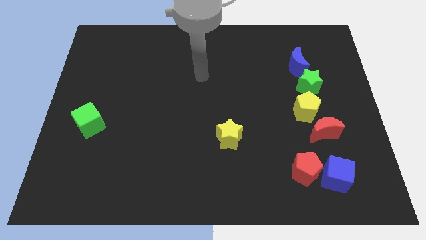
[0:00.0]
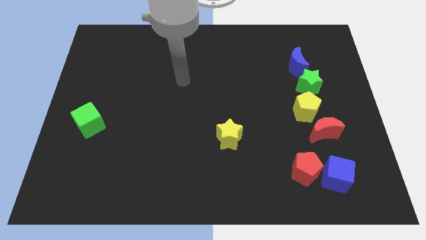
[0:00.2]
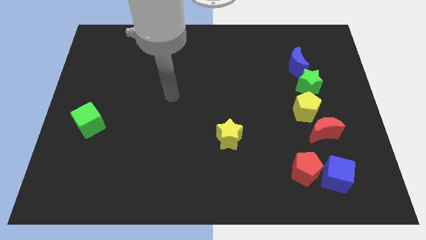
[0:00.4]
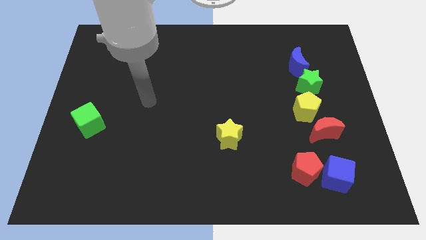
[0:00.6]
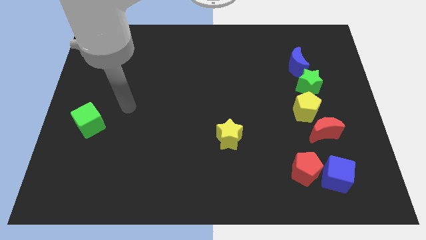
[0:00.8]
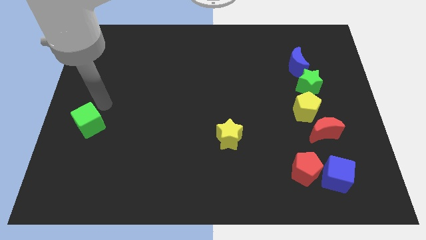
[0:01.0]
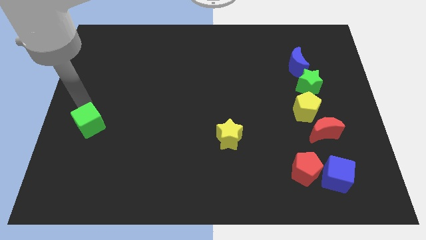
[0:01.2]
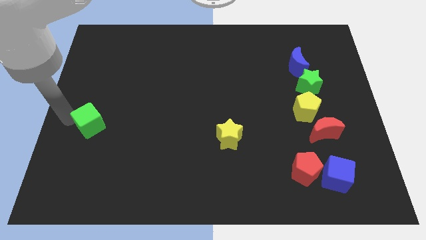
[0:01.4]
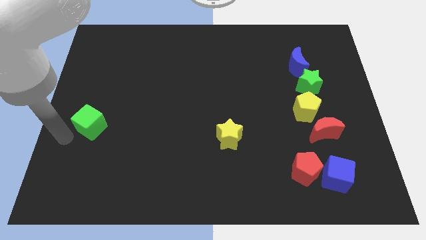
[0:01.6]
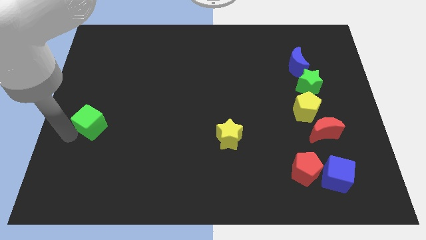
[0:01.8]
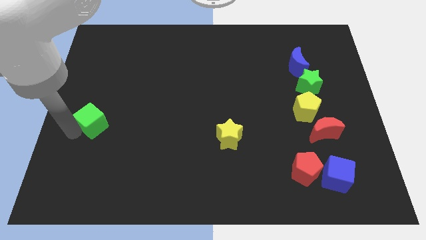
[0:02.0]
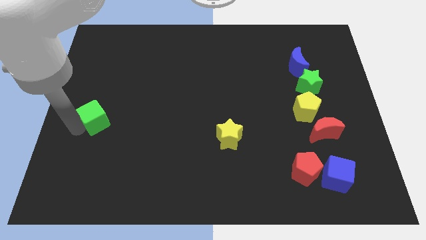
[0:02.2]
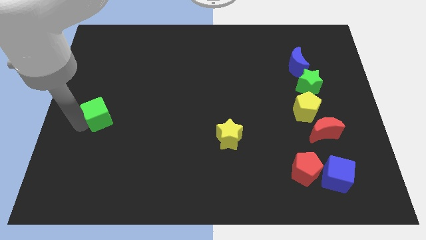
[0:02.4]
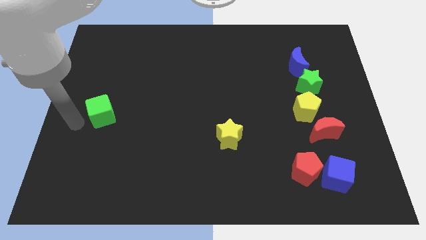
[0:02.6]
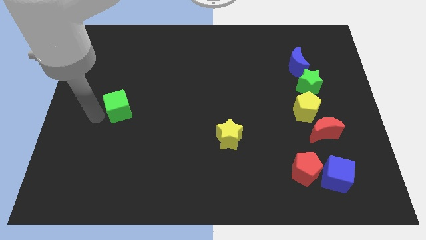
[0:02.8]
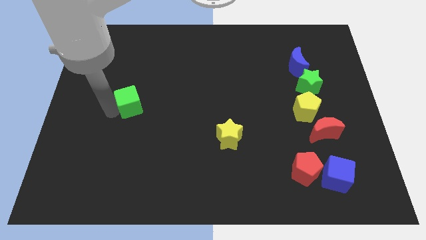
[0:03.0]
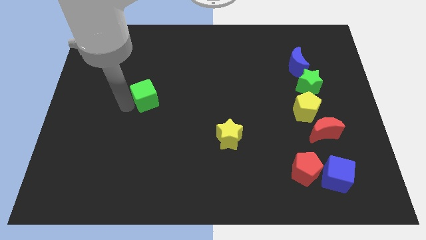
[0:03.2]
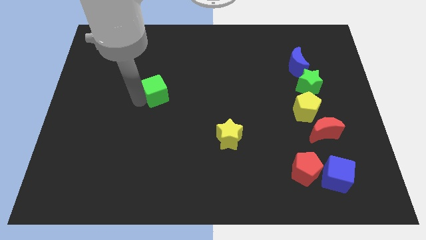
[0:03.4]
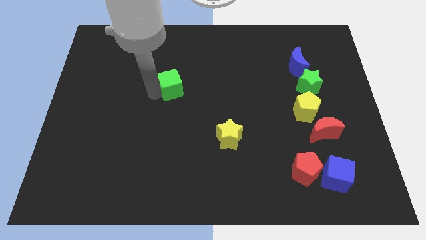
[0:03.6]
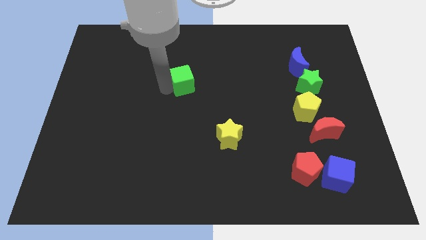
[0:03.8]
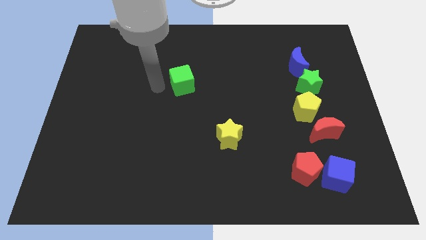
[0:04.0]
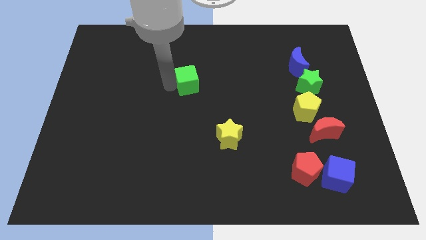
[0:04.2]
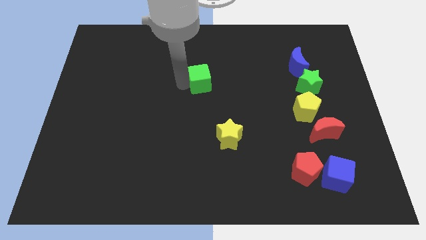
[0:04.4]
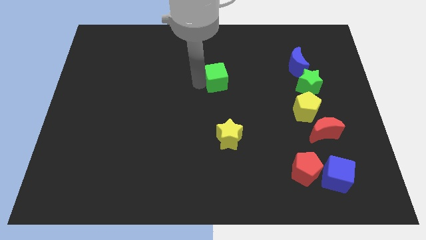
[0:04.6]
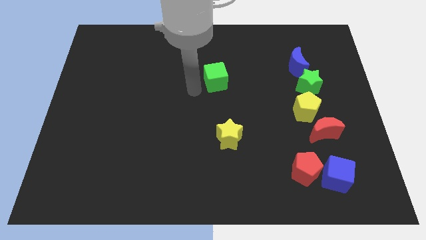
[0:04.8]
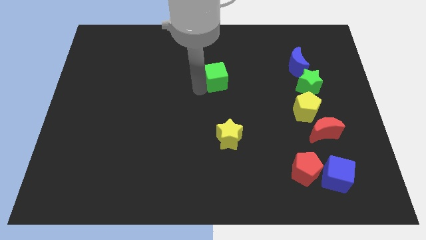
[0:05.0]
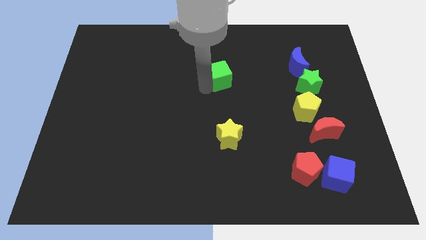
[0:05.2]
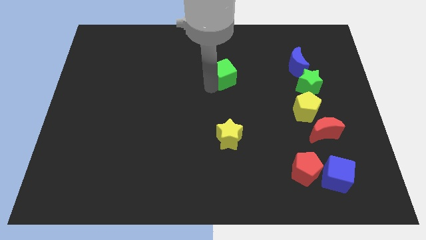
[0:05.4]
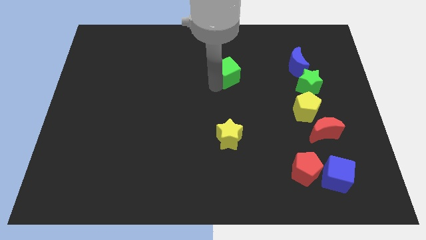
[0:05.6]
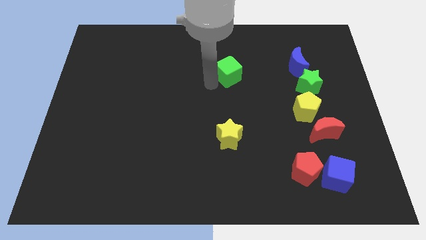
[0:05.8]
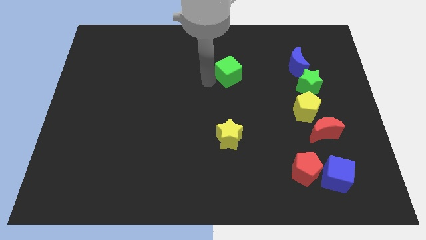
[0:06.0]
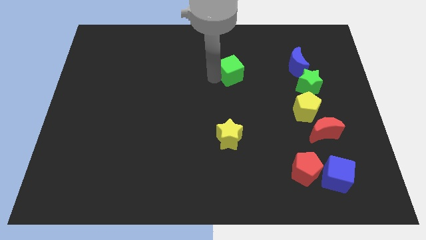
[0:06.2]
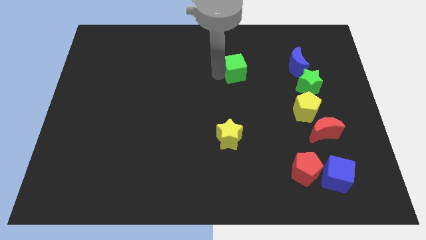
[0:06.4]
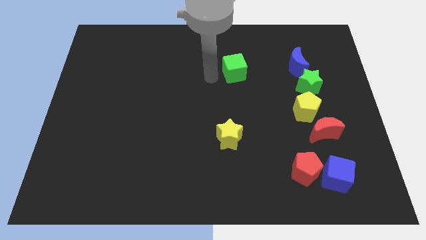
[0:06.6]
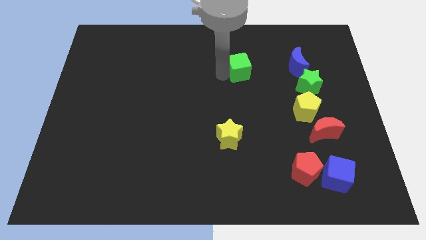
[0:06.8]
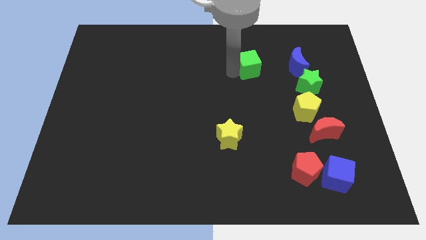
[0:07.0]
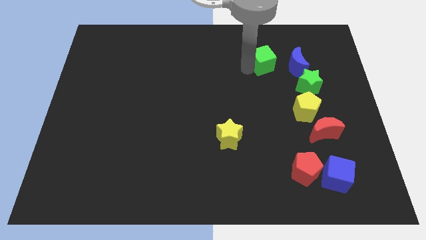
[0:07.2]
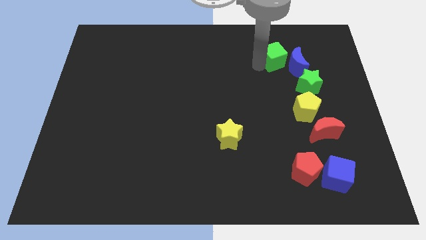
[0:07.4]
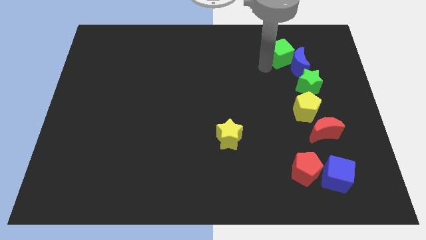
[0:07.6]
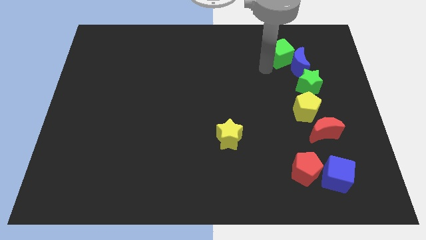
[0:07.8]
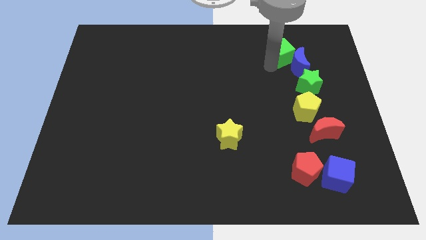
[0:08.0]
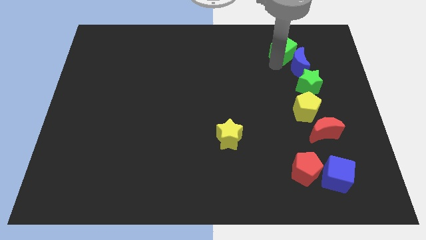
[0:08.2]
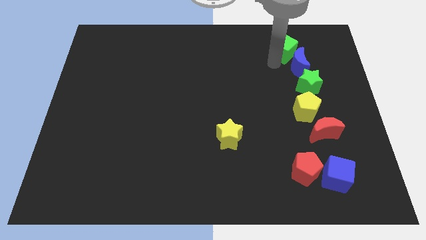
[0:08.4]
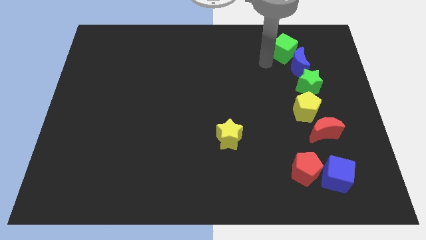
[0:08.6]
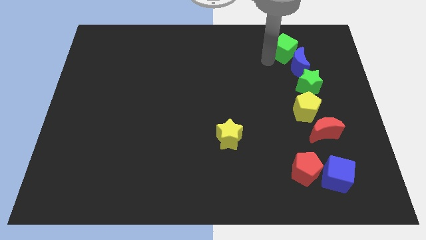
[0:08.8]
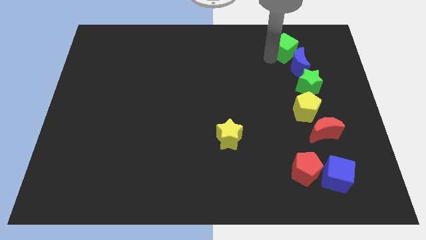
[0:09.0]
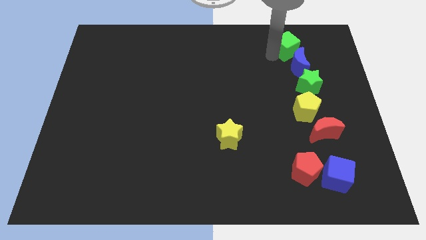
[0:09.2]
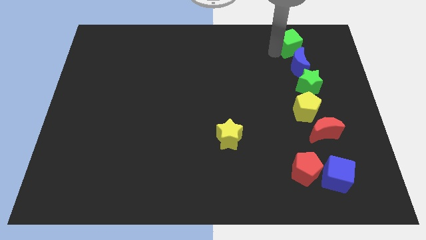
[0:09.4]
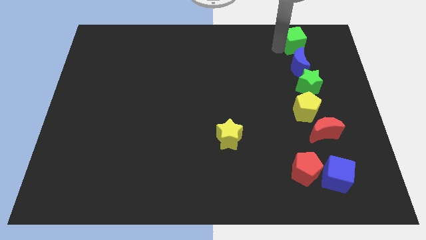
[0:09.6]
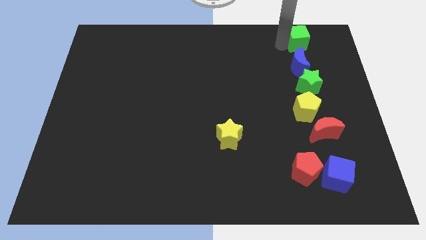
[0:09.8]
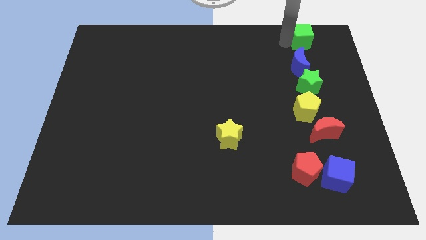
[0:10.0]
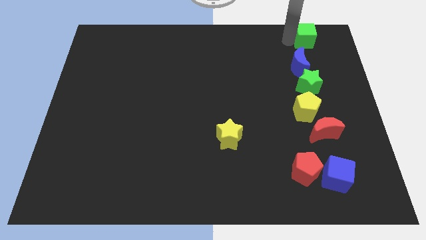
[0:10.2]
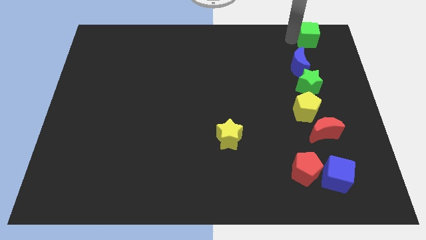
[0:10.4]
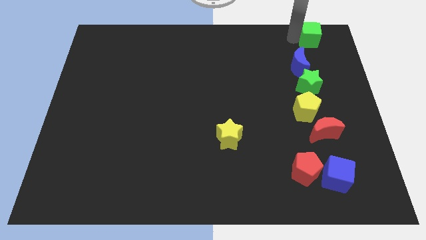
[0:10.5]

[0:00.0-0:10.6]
put the green cube to the top right corner

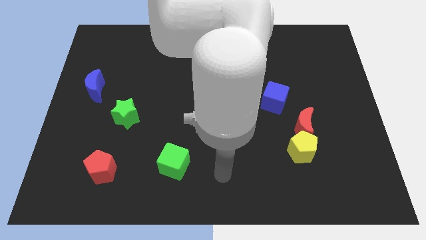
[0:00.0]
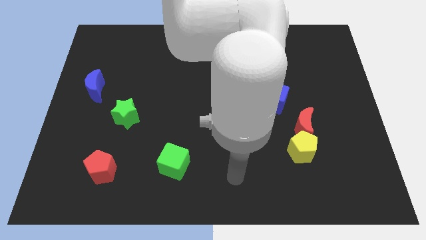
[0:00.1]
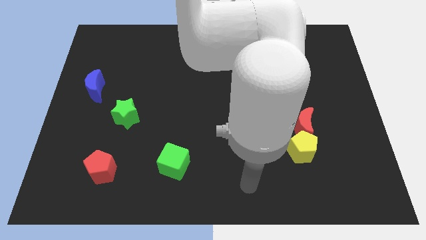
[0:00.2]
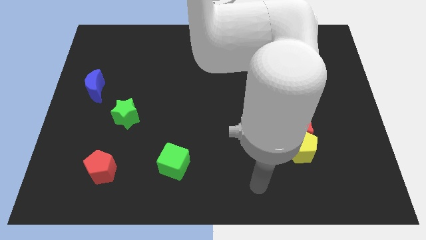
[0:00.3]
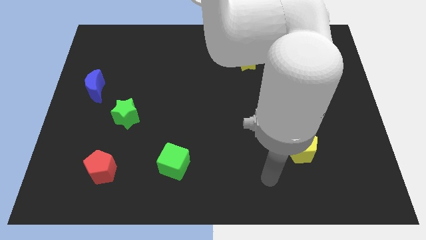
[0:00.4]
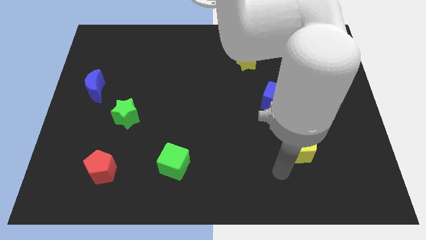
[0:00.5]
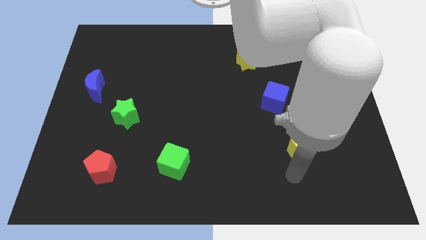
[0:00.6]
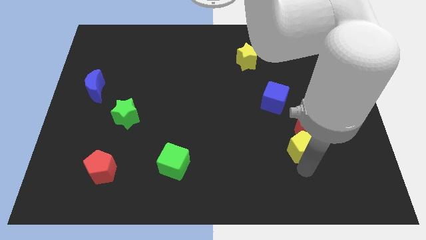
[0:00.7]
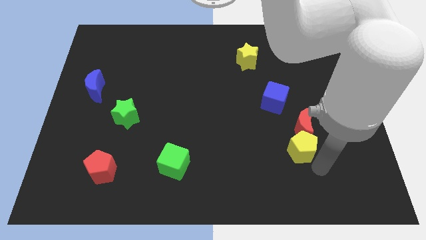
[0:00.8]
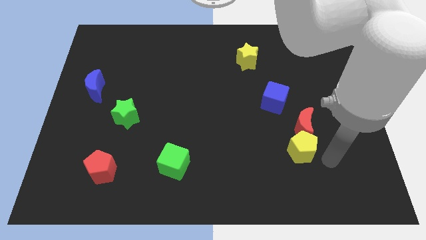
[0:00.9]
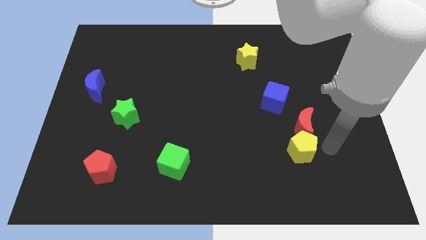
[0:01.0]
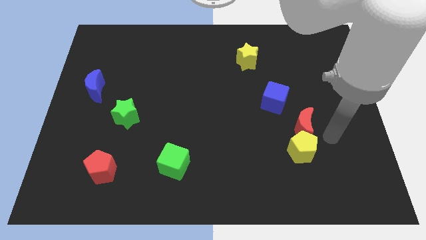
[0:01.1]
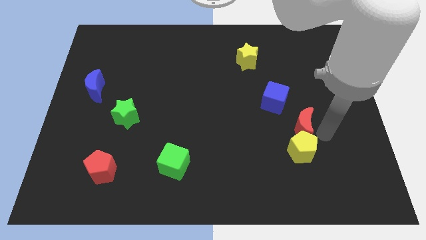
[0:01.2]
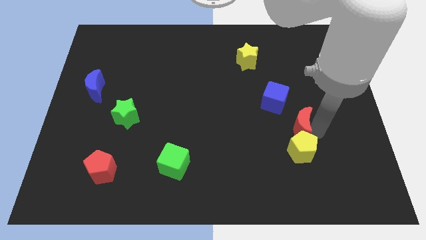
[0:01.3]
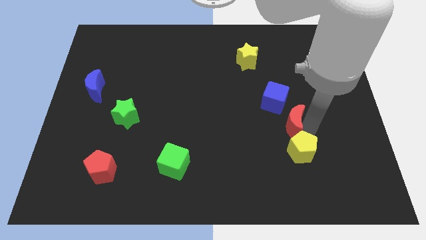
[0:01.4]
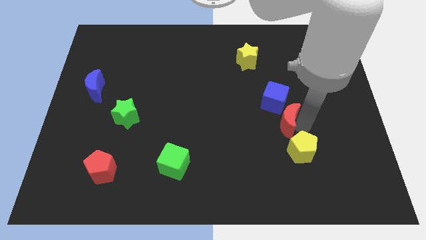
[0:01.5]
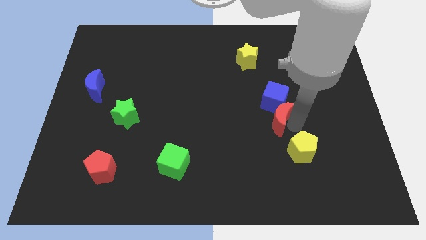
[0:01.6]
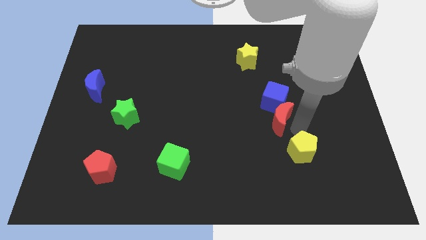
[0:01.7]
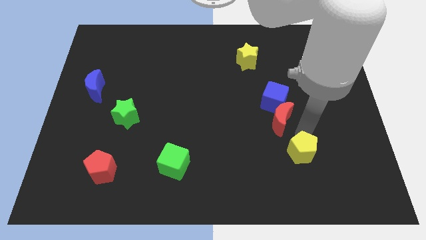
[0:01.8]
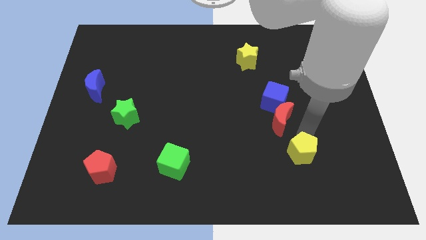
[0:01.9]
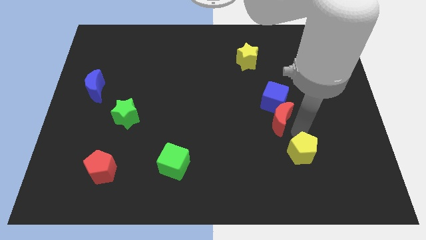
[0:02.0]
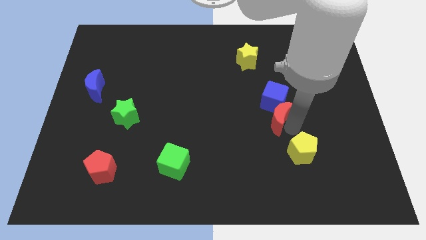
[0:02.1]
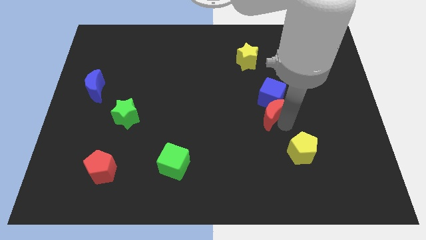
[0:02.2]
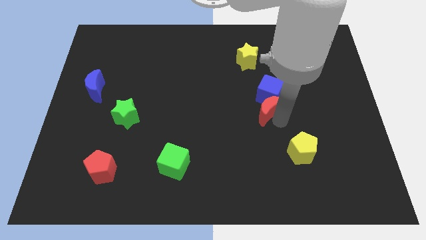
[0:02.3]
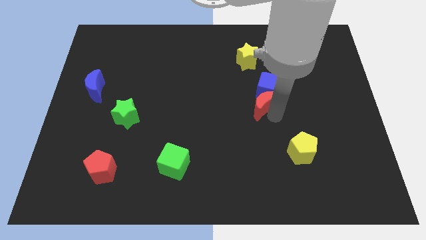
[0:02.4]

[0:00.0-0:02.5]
move the red moon to the center of the board

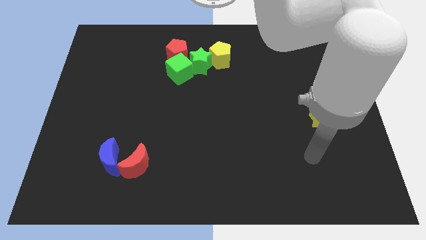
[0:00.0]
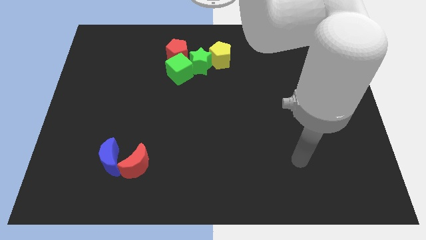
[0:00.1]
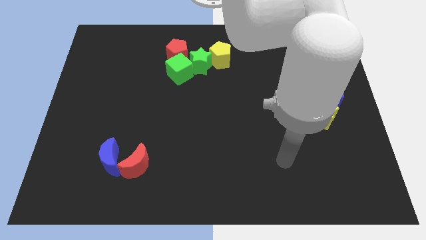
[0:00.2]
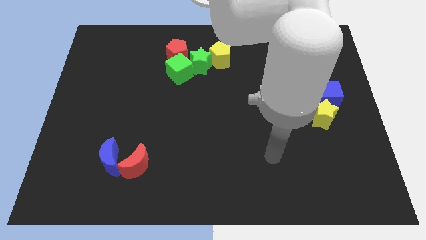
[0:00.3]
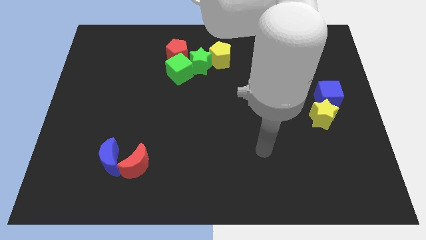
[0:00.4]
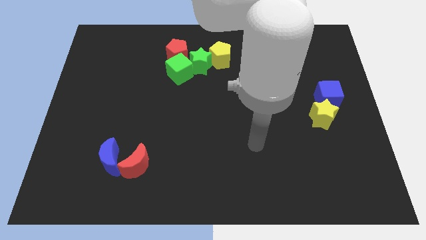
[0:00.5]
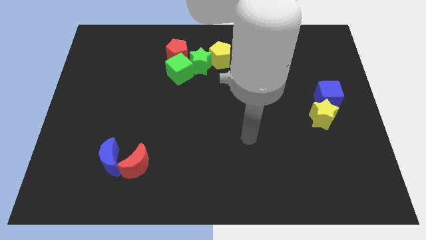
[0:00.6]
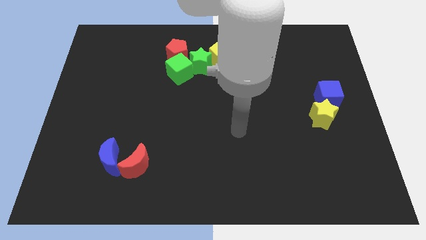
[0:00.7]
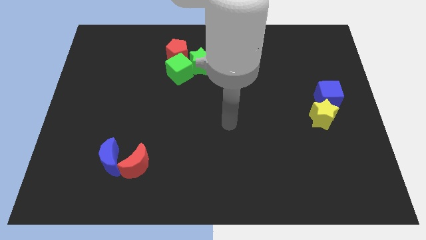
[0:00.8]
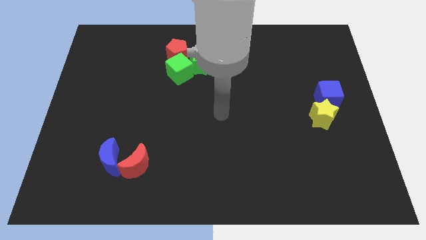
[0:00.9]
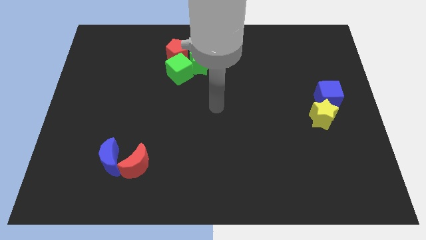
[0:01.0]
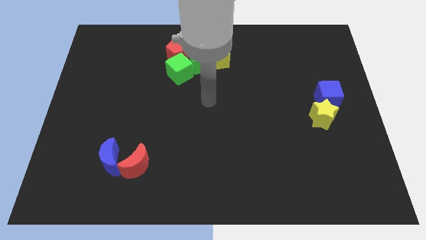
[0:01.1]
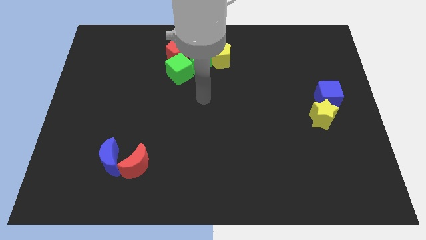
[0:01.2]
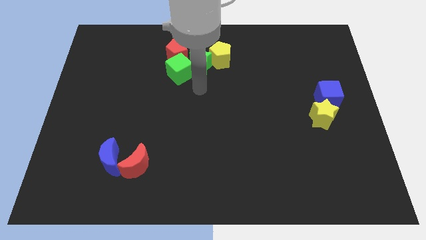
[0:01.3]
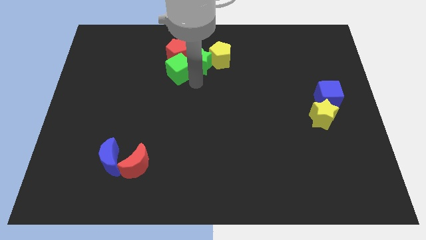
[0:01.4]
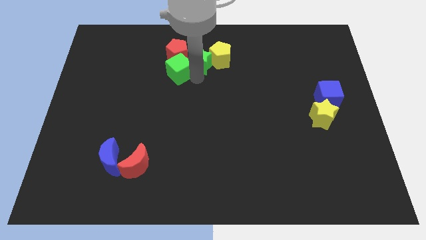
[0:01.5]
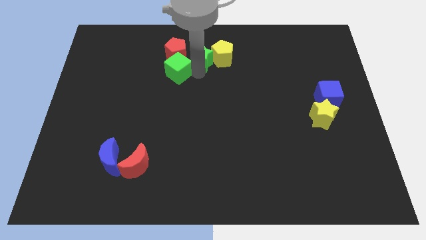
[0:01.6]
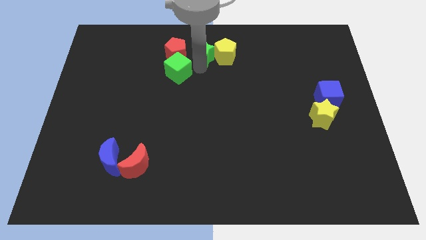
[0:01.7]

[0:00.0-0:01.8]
put the green star to the towards your base
